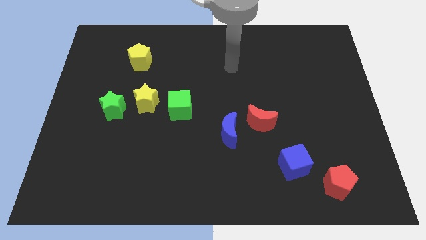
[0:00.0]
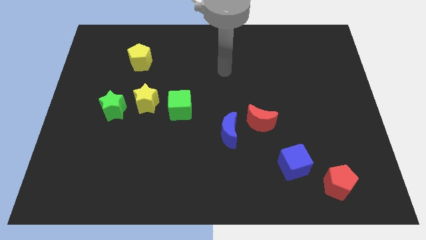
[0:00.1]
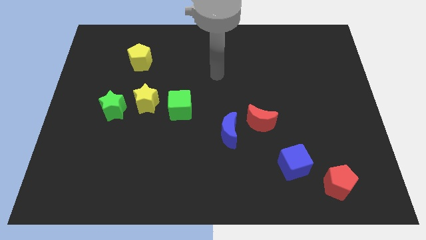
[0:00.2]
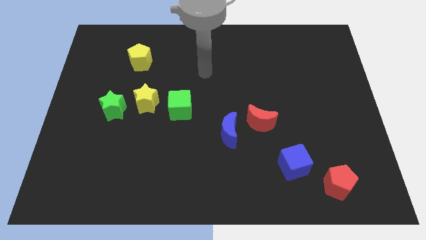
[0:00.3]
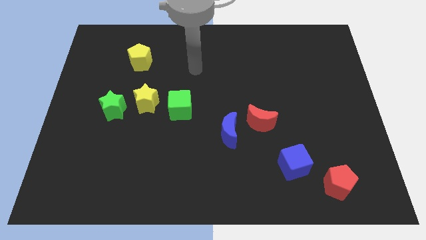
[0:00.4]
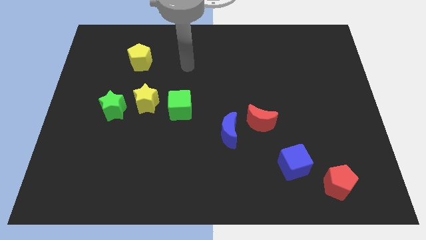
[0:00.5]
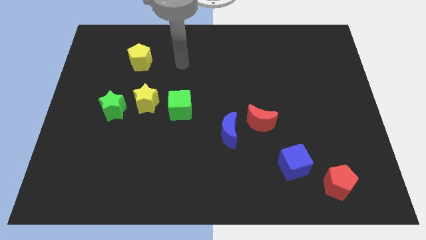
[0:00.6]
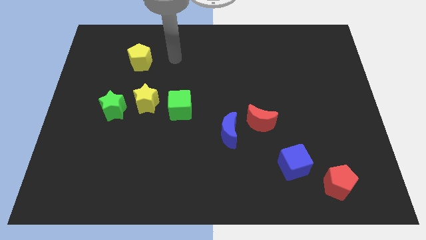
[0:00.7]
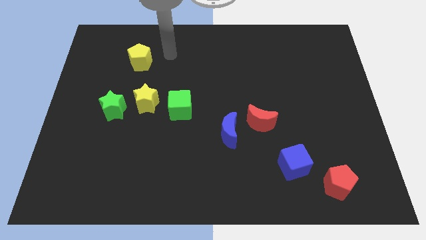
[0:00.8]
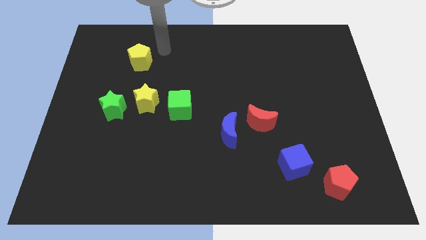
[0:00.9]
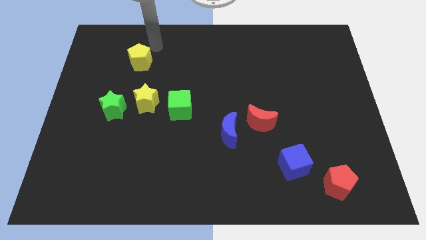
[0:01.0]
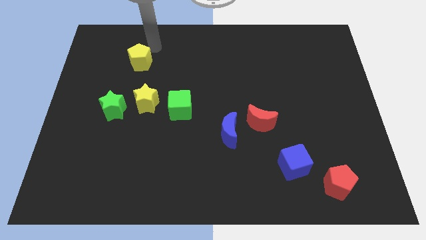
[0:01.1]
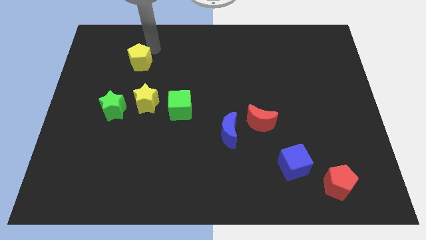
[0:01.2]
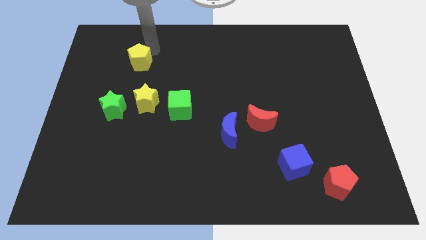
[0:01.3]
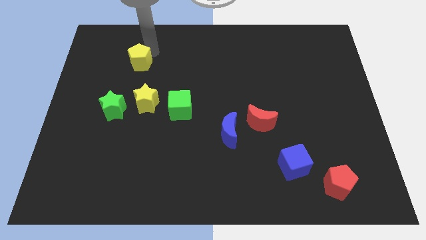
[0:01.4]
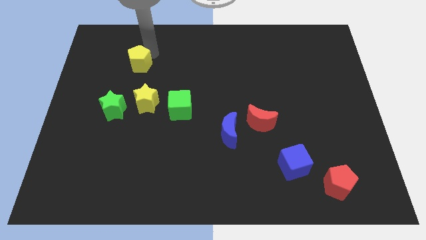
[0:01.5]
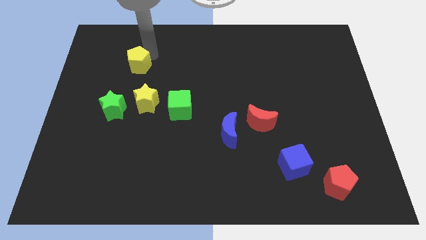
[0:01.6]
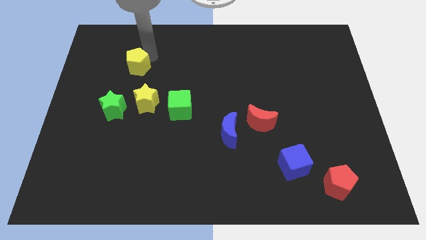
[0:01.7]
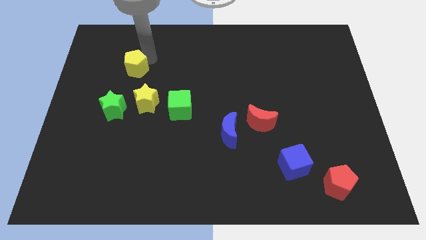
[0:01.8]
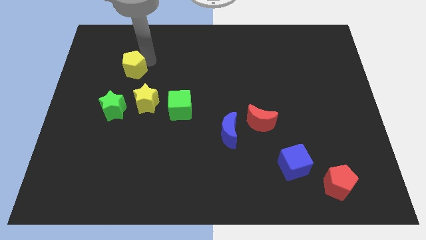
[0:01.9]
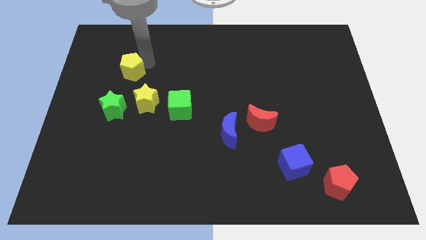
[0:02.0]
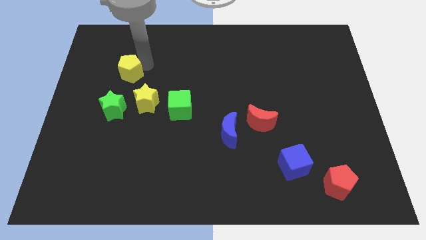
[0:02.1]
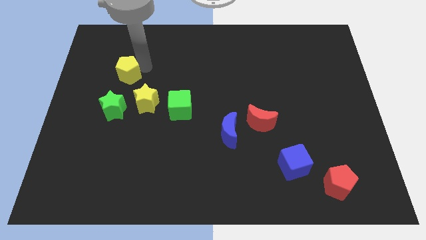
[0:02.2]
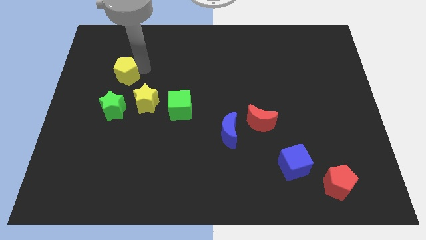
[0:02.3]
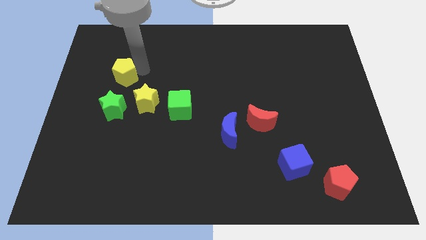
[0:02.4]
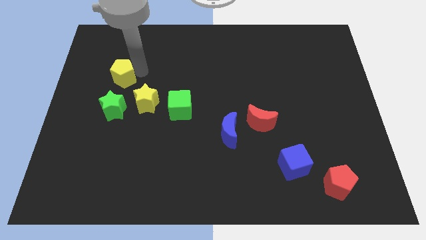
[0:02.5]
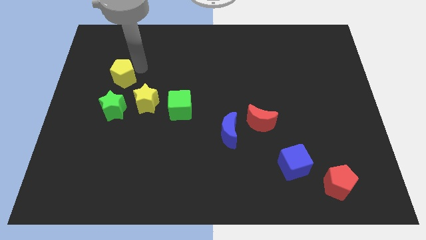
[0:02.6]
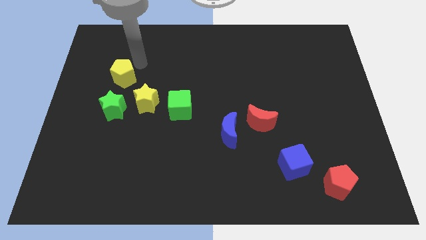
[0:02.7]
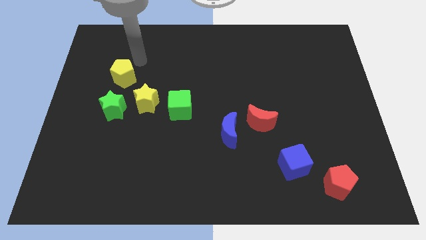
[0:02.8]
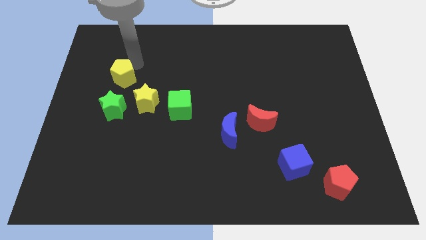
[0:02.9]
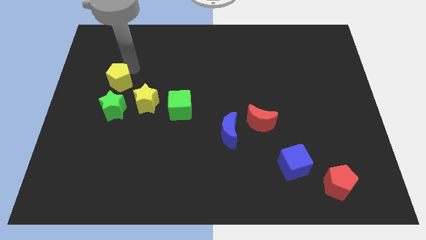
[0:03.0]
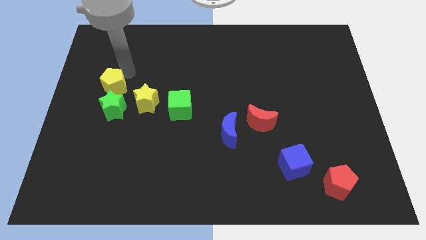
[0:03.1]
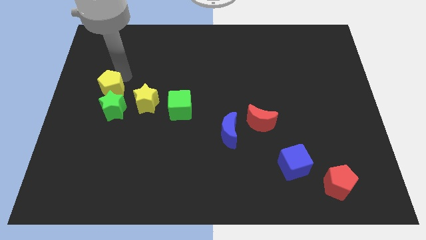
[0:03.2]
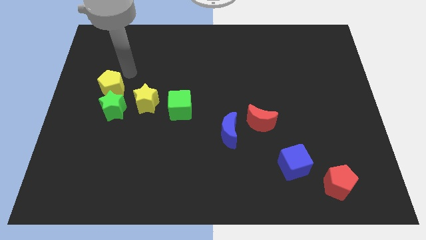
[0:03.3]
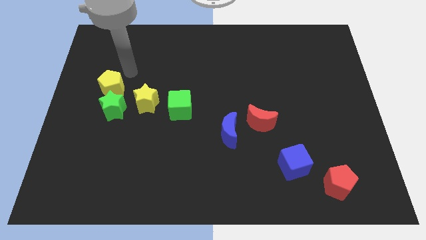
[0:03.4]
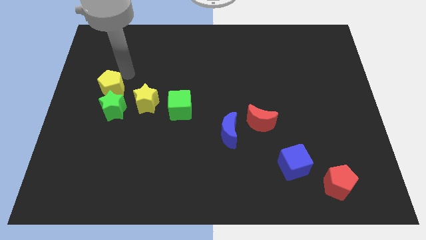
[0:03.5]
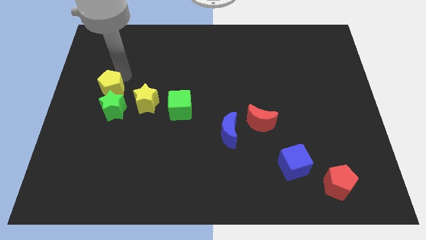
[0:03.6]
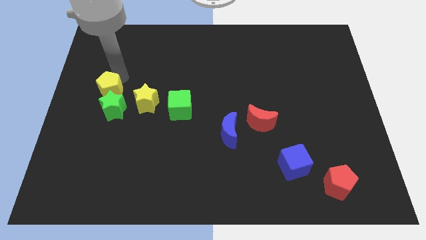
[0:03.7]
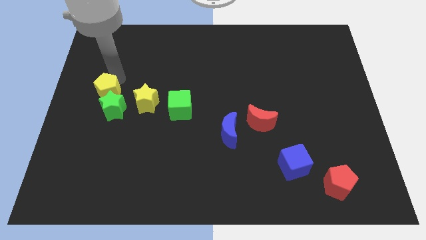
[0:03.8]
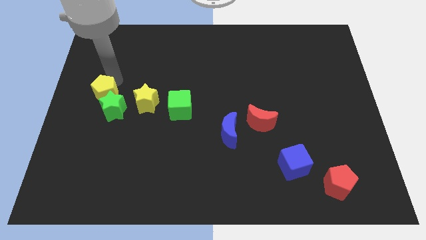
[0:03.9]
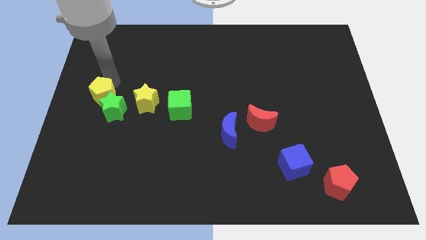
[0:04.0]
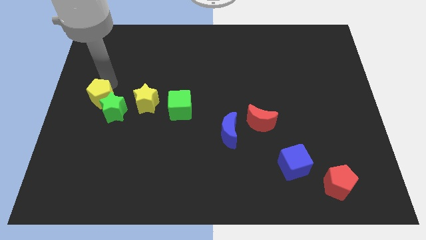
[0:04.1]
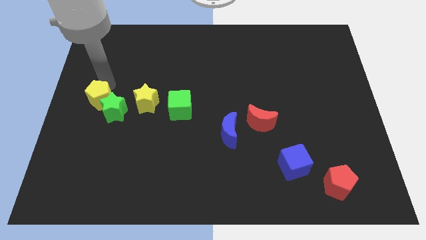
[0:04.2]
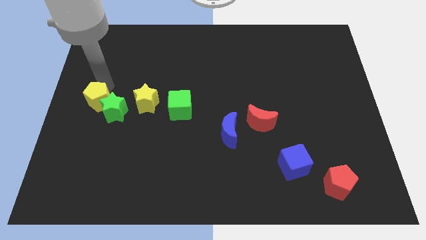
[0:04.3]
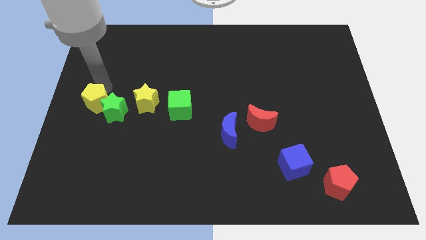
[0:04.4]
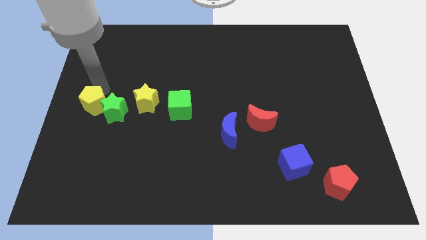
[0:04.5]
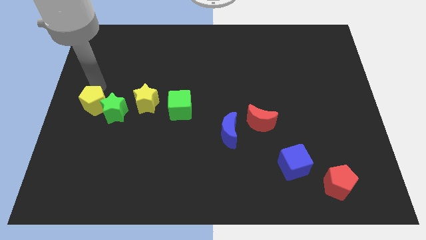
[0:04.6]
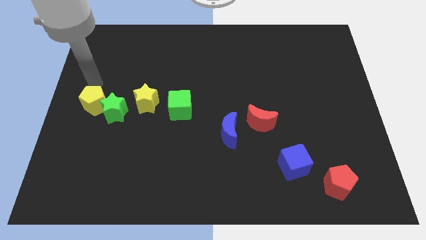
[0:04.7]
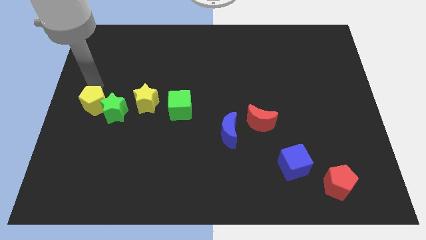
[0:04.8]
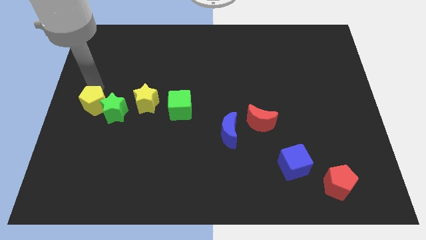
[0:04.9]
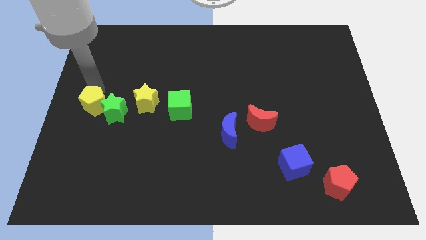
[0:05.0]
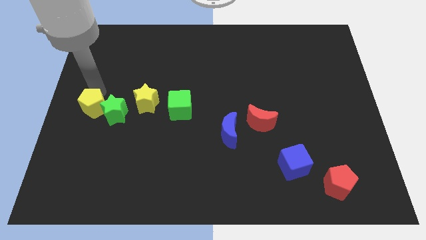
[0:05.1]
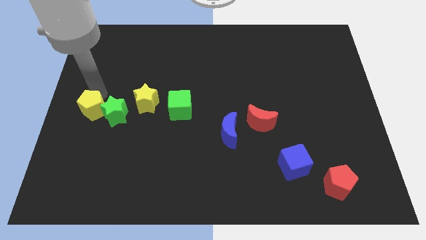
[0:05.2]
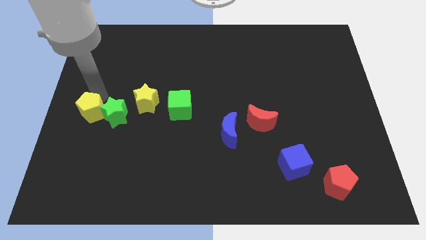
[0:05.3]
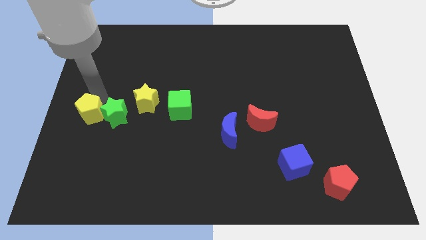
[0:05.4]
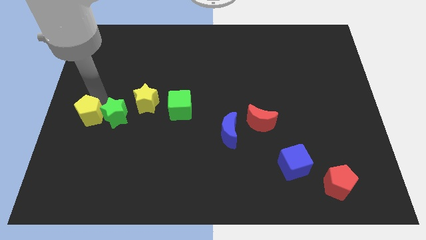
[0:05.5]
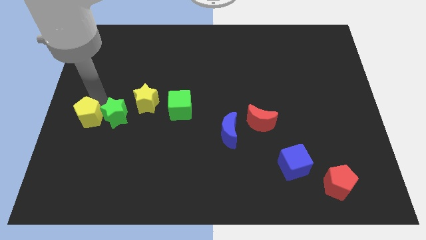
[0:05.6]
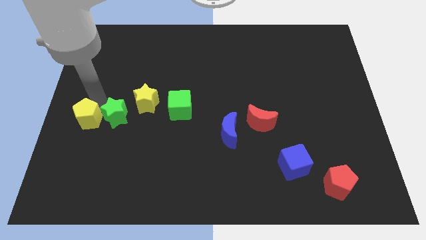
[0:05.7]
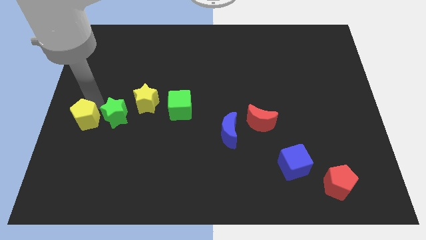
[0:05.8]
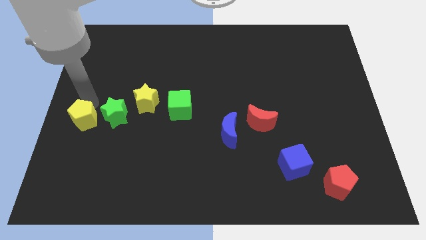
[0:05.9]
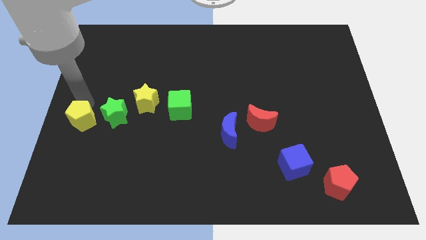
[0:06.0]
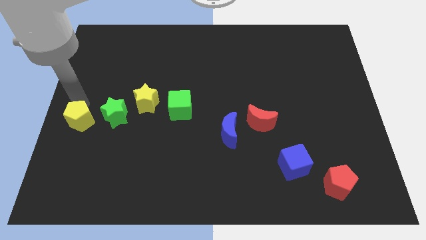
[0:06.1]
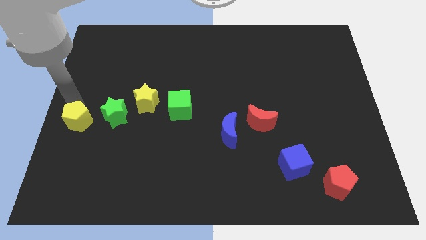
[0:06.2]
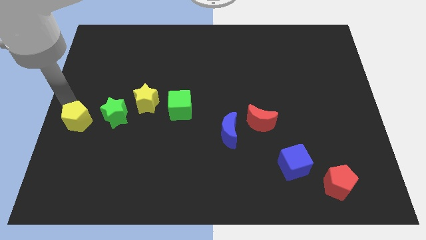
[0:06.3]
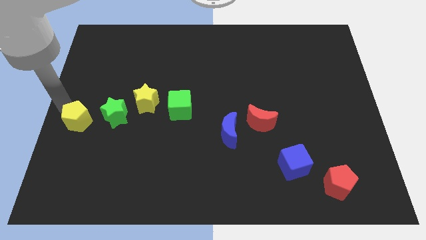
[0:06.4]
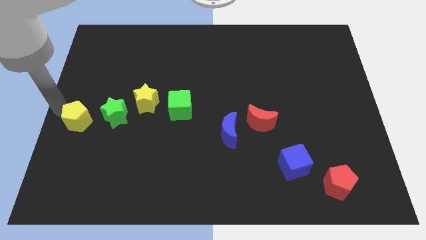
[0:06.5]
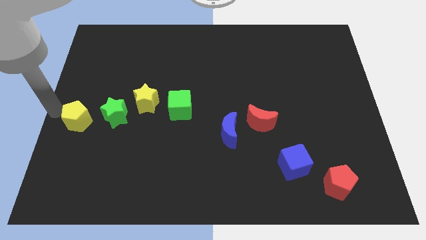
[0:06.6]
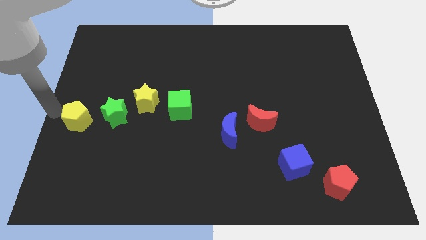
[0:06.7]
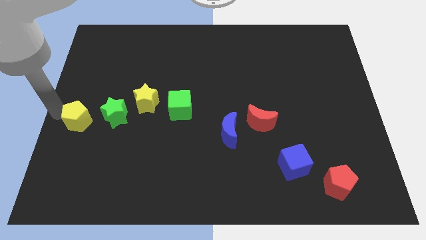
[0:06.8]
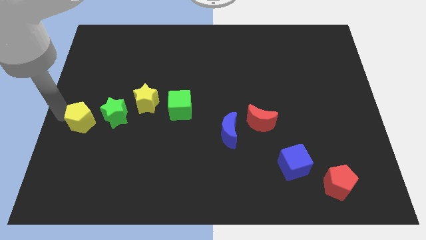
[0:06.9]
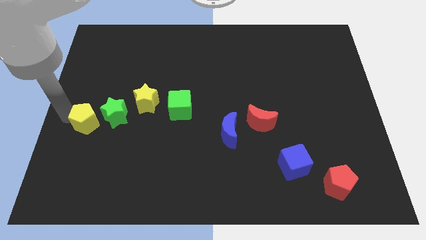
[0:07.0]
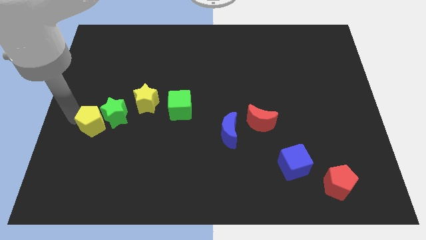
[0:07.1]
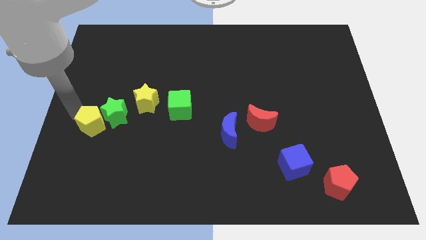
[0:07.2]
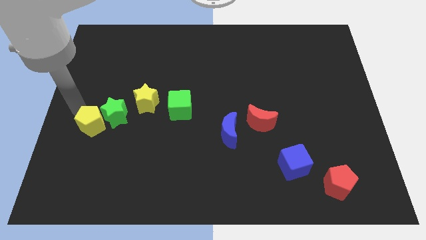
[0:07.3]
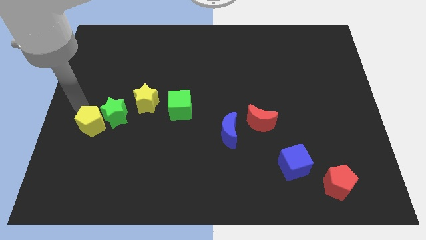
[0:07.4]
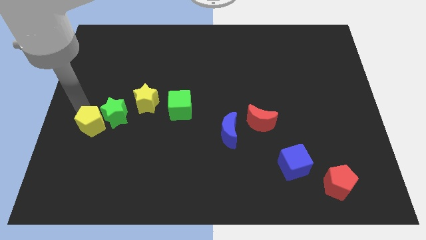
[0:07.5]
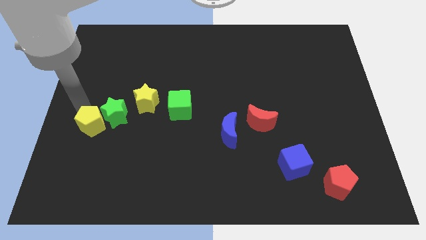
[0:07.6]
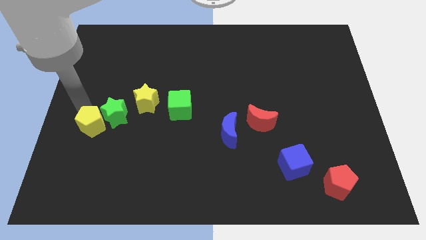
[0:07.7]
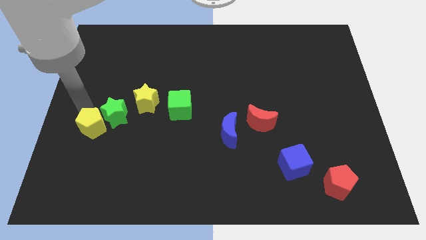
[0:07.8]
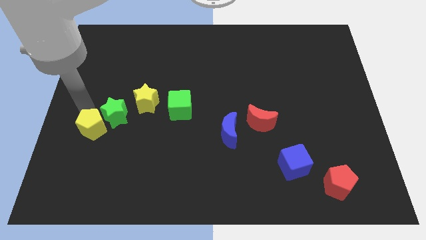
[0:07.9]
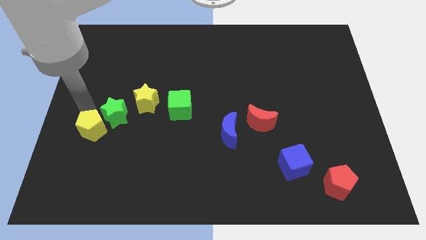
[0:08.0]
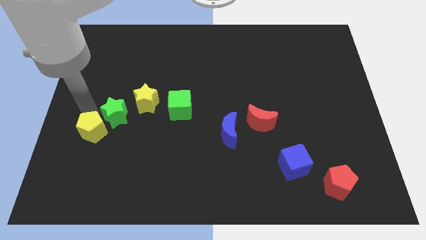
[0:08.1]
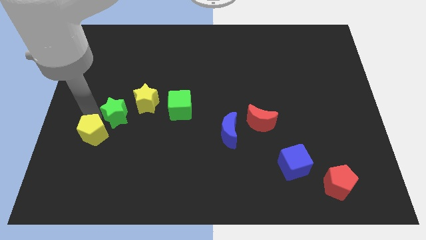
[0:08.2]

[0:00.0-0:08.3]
push the yellow pentagon down
